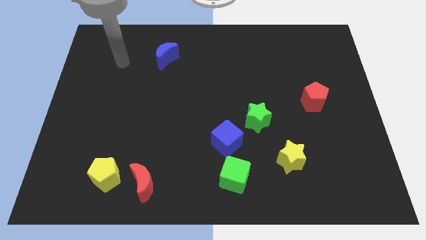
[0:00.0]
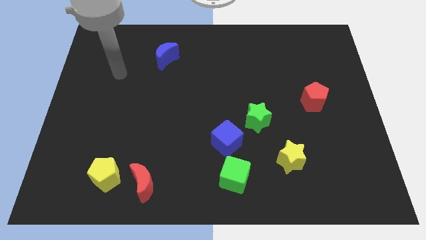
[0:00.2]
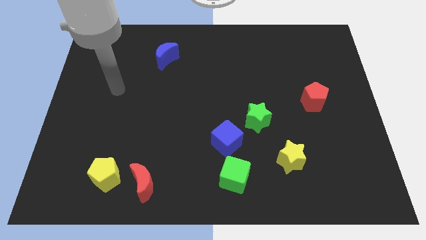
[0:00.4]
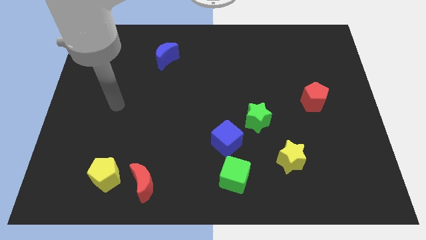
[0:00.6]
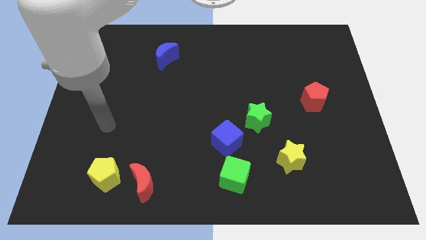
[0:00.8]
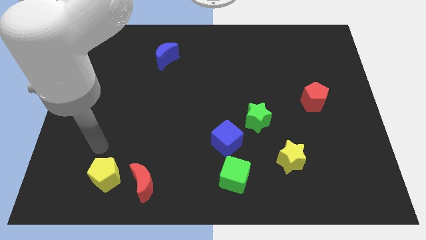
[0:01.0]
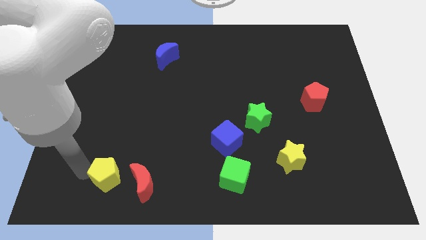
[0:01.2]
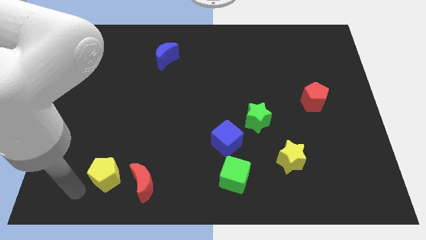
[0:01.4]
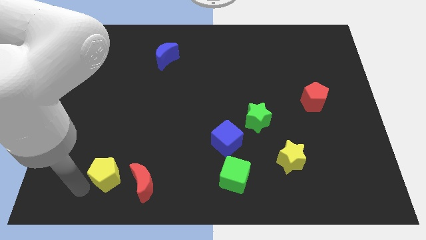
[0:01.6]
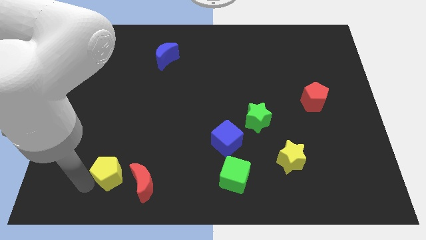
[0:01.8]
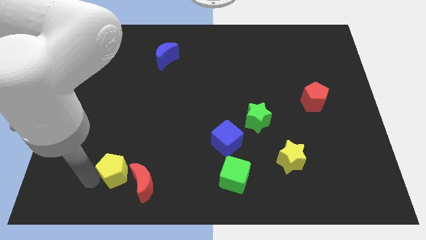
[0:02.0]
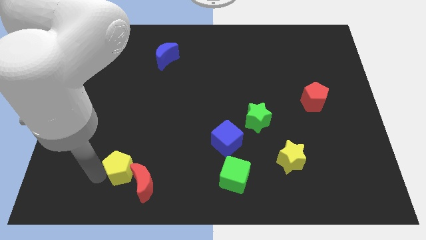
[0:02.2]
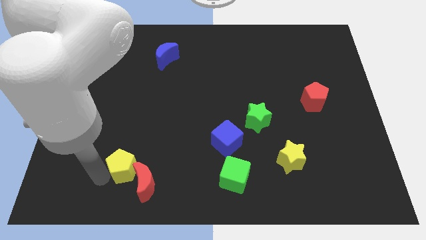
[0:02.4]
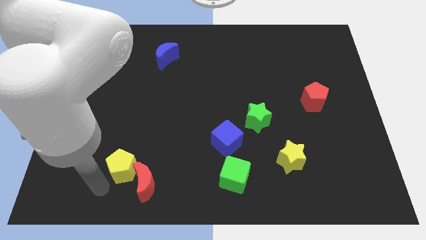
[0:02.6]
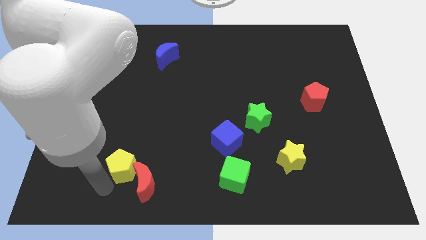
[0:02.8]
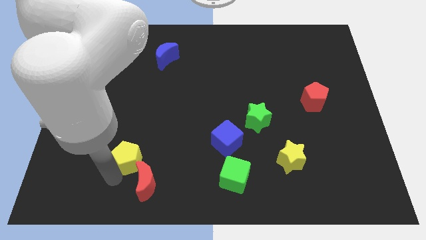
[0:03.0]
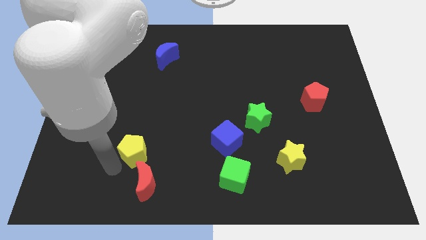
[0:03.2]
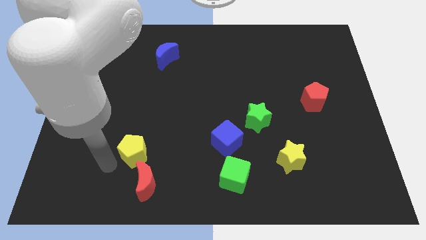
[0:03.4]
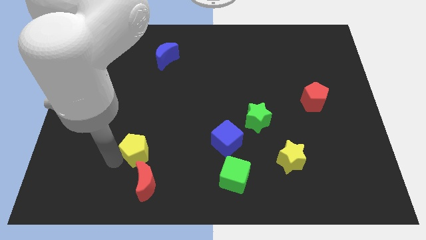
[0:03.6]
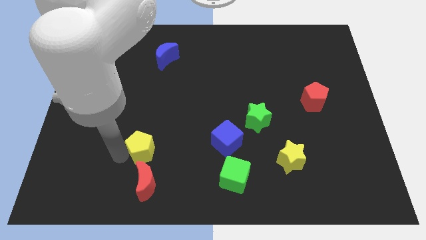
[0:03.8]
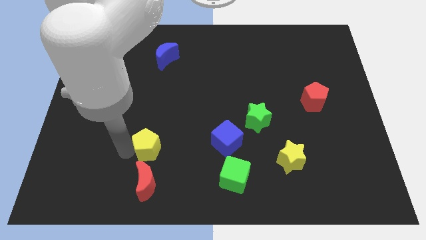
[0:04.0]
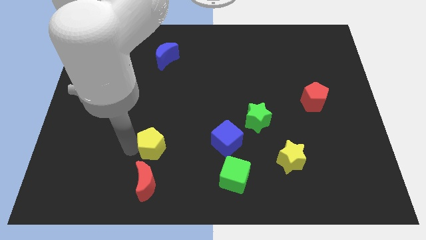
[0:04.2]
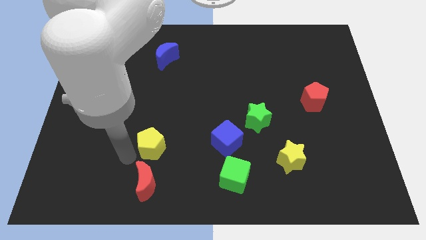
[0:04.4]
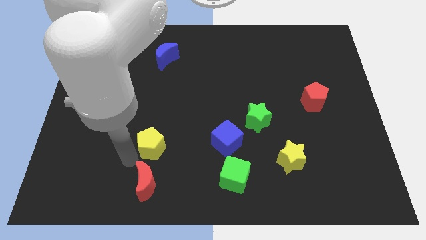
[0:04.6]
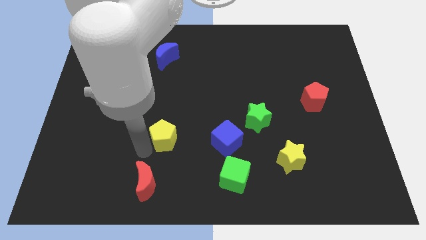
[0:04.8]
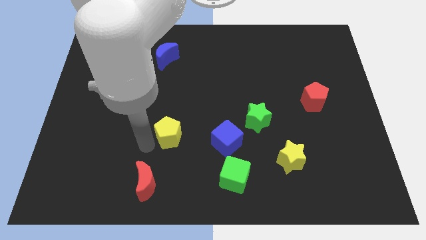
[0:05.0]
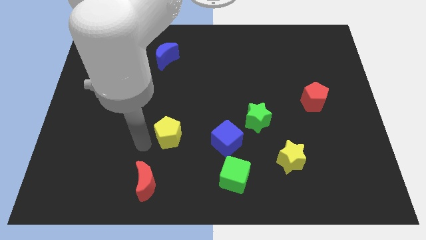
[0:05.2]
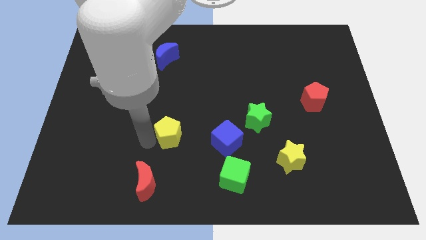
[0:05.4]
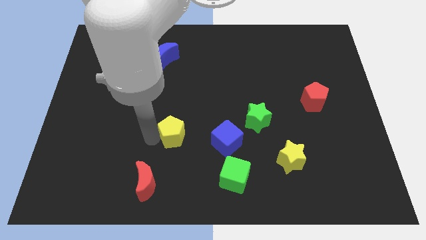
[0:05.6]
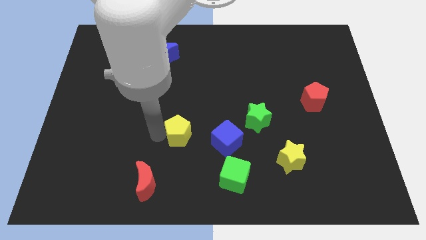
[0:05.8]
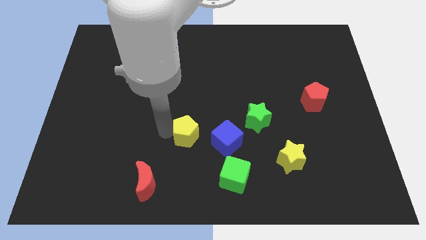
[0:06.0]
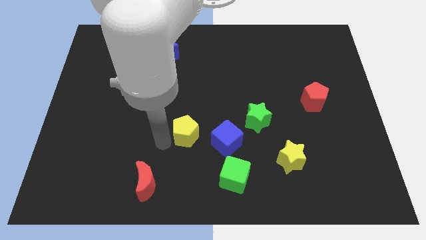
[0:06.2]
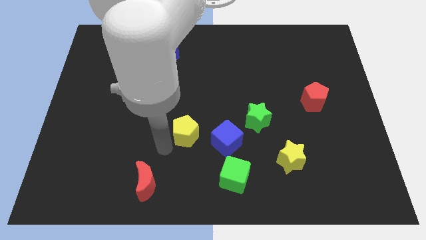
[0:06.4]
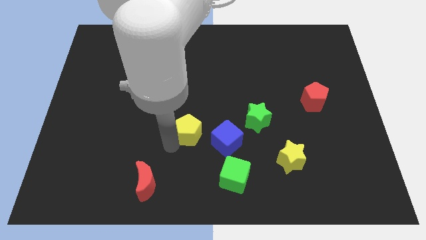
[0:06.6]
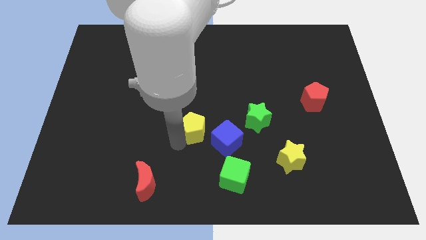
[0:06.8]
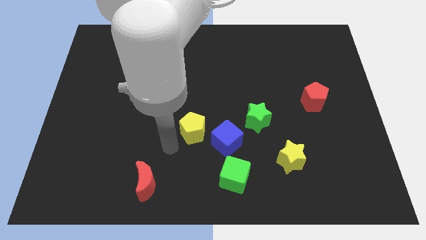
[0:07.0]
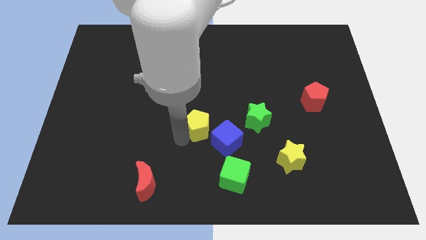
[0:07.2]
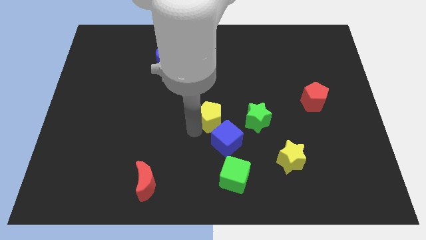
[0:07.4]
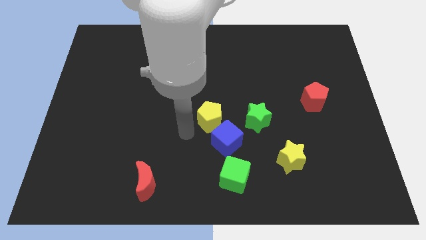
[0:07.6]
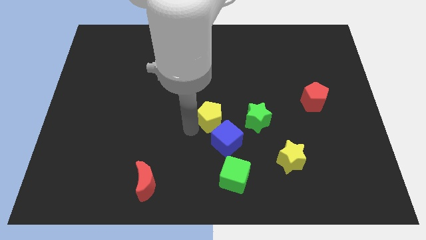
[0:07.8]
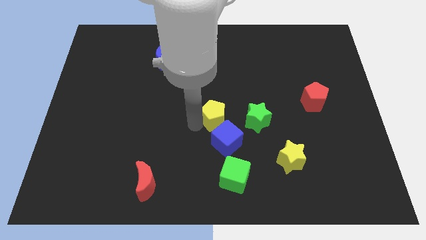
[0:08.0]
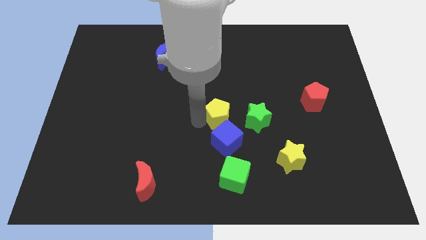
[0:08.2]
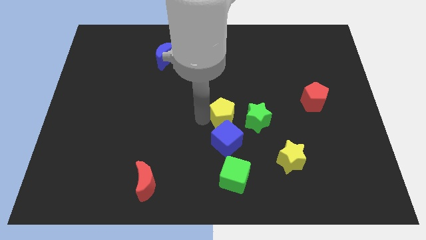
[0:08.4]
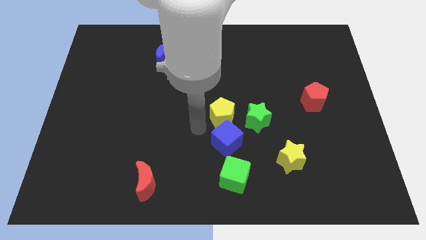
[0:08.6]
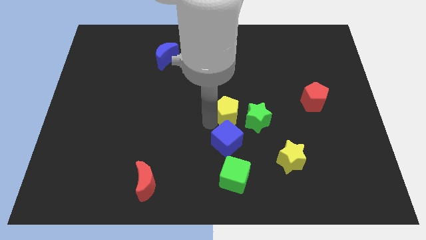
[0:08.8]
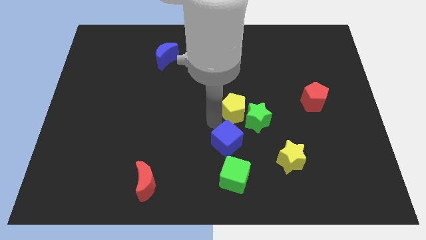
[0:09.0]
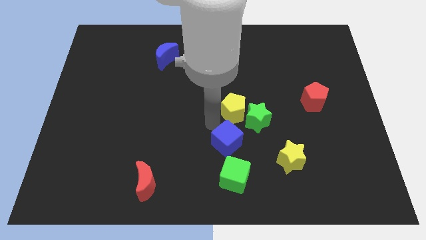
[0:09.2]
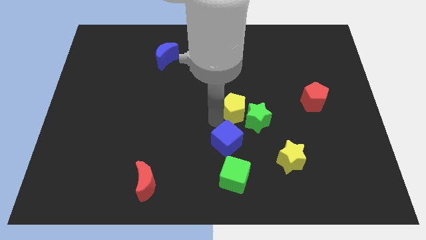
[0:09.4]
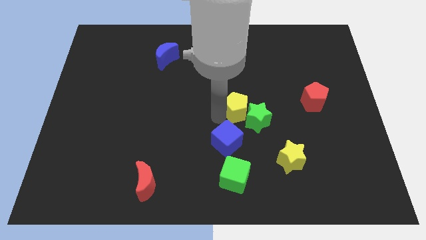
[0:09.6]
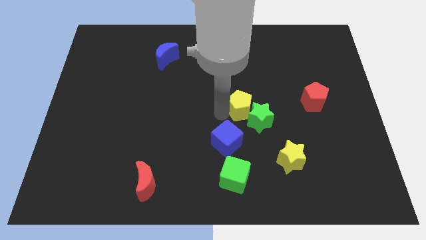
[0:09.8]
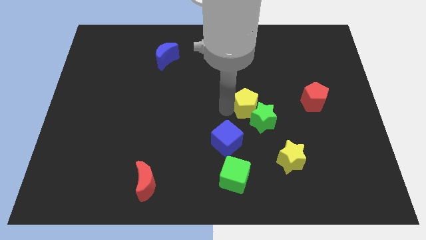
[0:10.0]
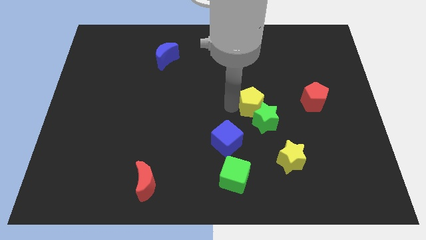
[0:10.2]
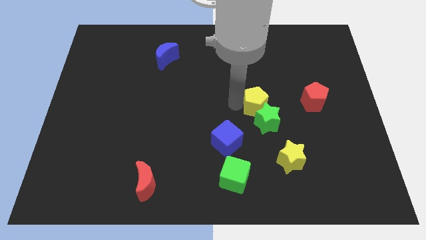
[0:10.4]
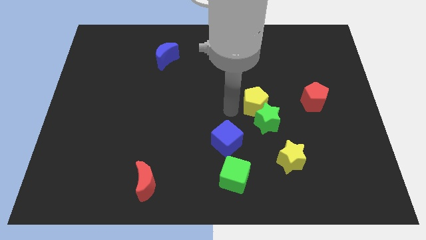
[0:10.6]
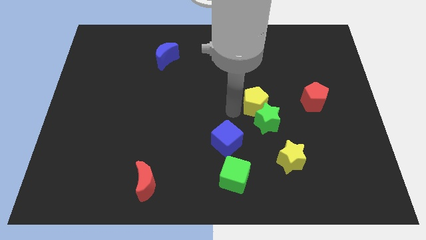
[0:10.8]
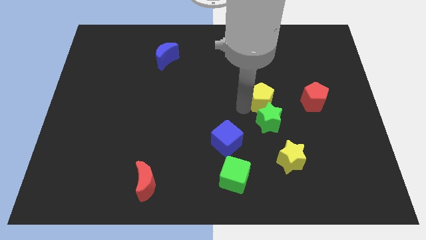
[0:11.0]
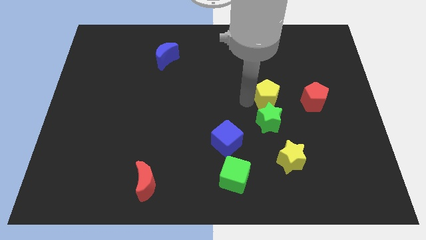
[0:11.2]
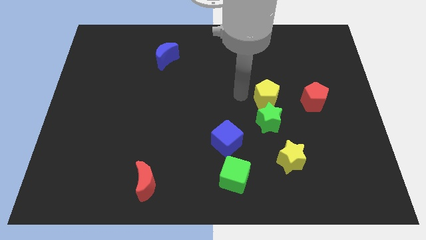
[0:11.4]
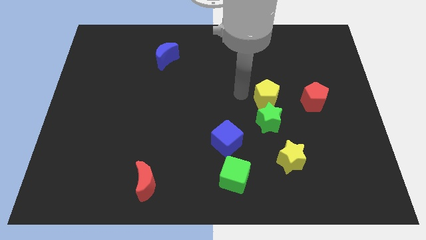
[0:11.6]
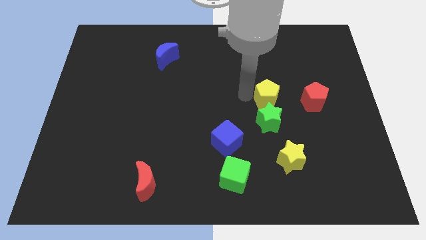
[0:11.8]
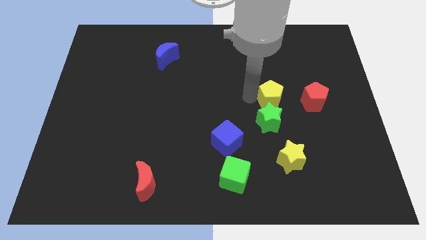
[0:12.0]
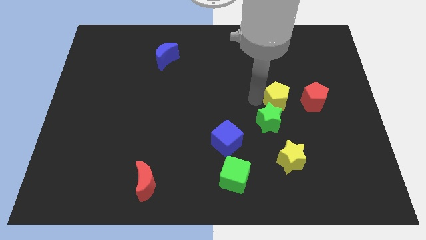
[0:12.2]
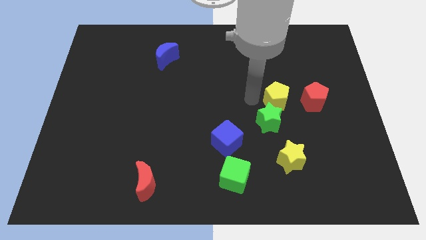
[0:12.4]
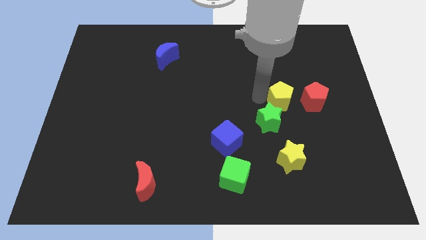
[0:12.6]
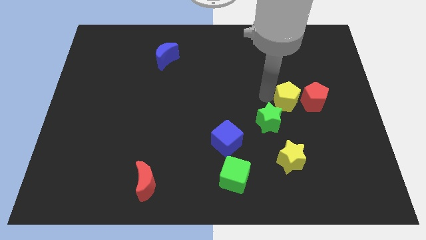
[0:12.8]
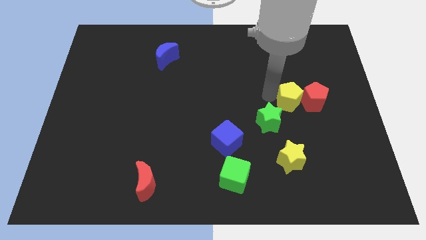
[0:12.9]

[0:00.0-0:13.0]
slide the yellow pentagon towards the red pentagon
